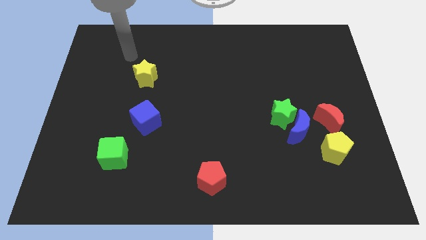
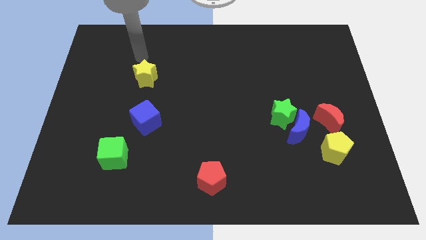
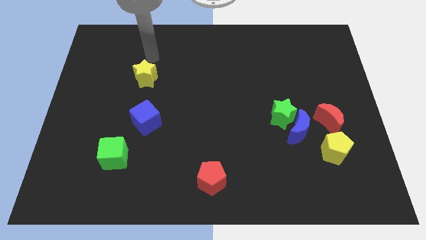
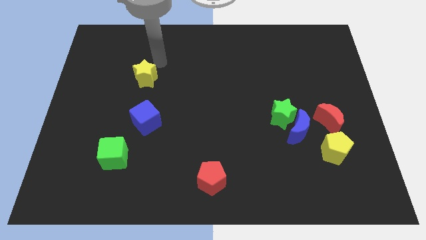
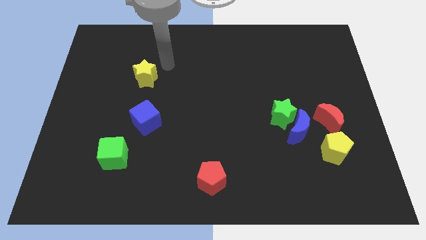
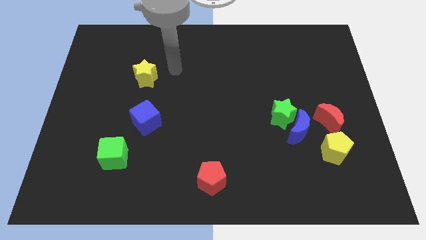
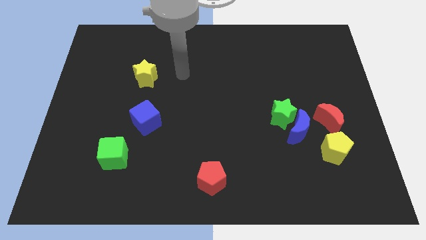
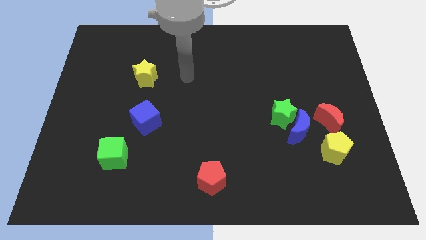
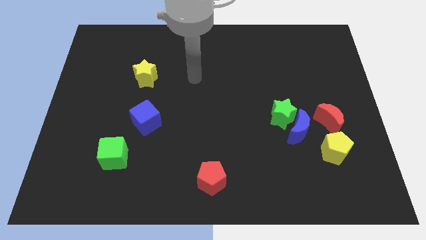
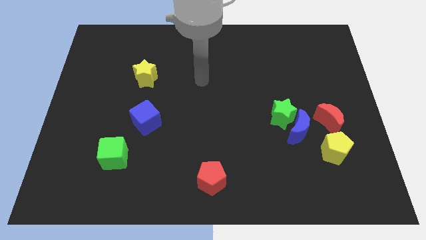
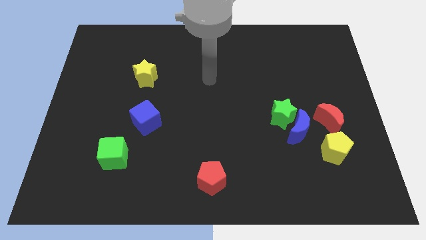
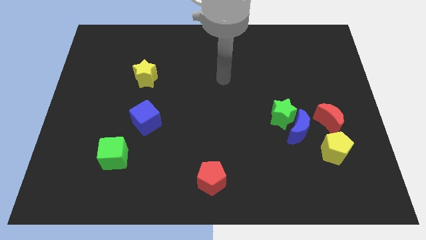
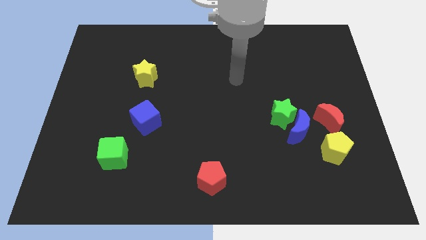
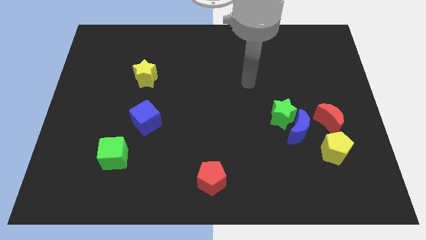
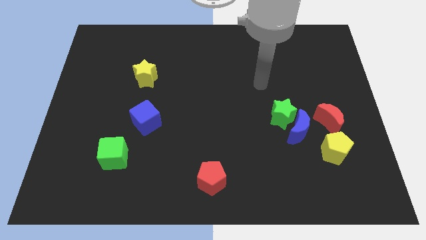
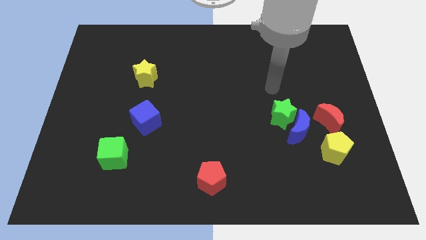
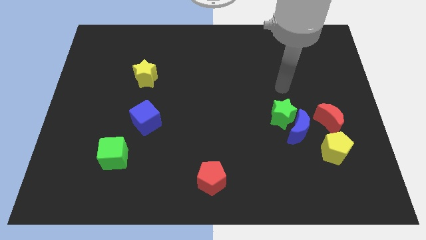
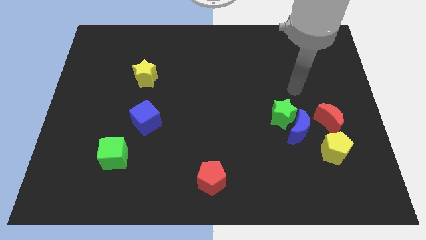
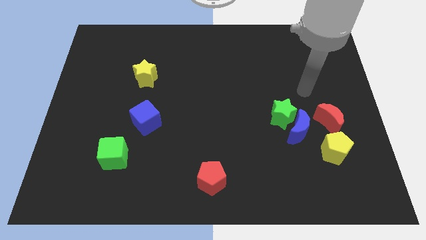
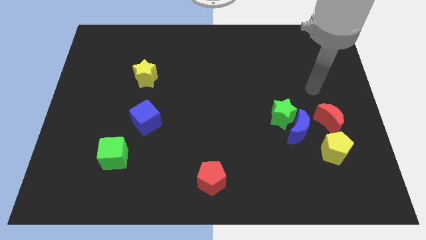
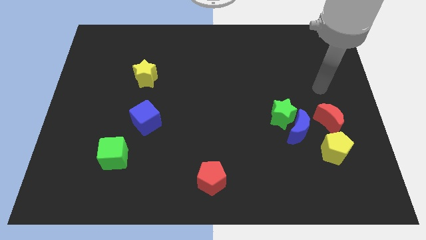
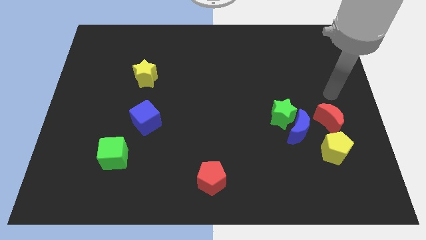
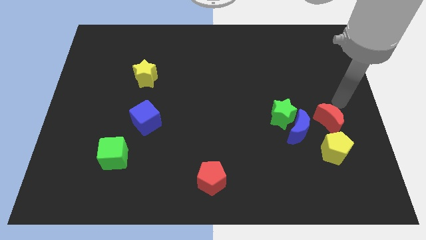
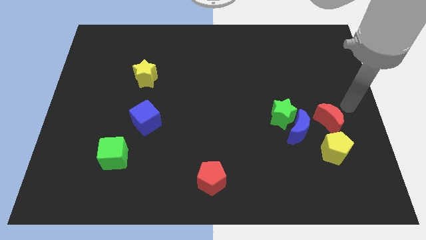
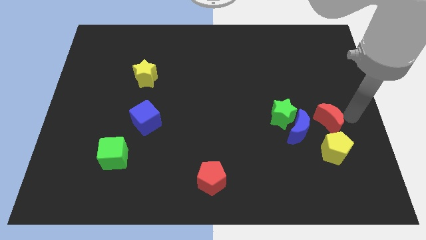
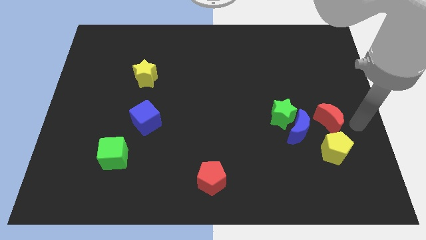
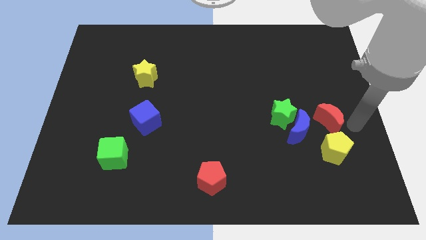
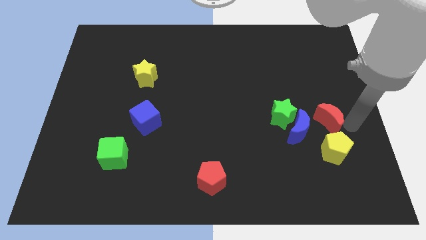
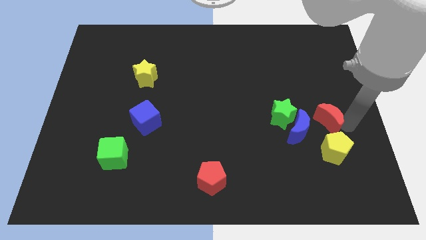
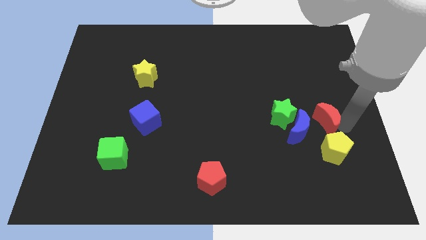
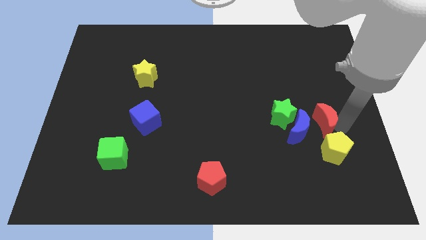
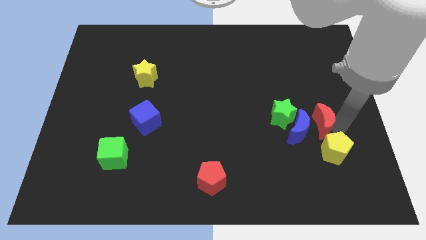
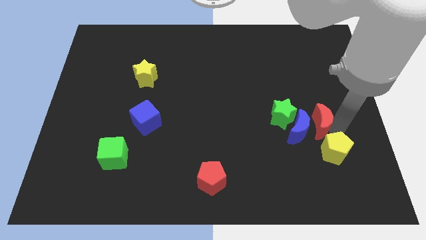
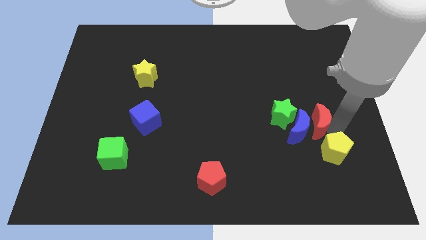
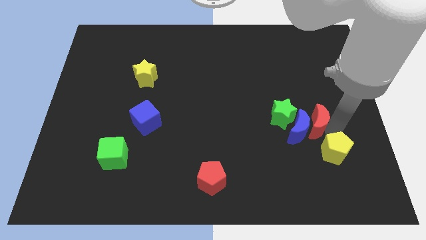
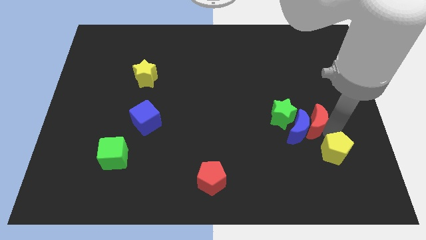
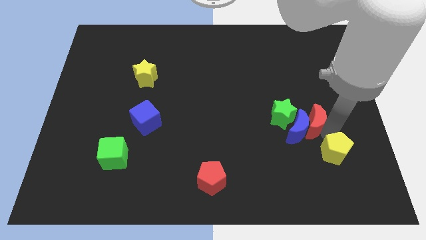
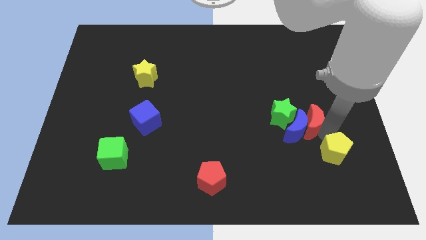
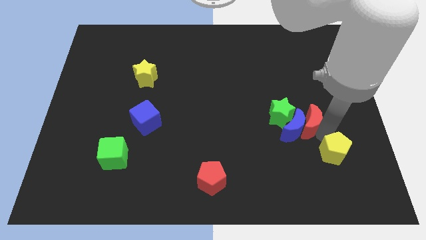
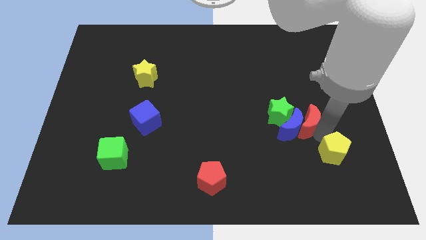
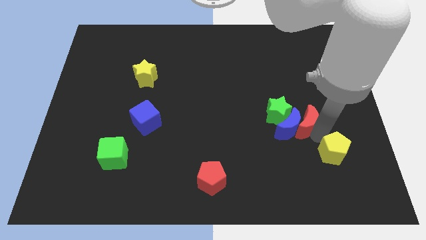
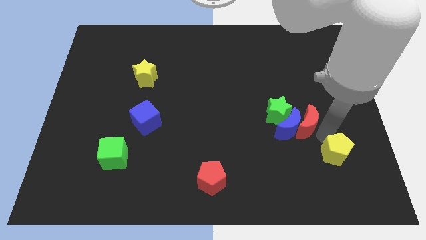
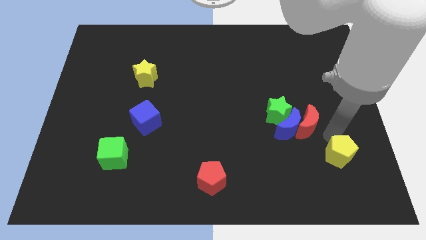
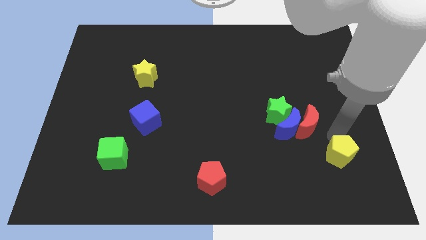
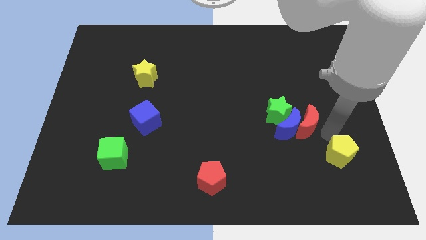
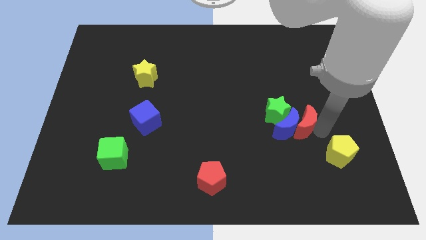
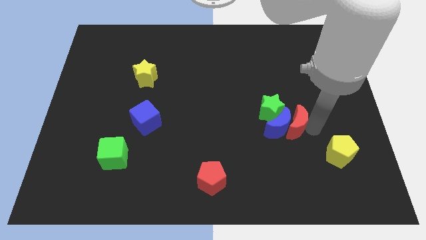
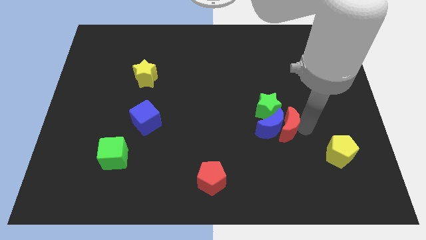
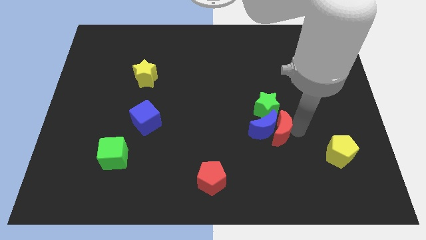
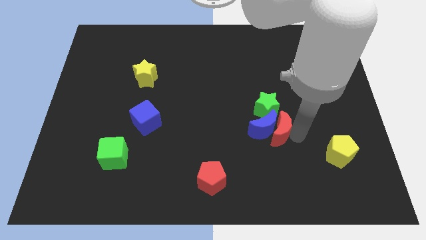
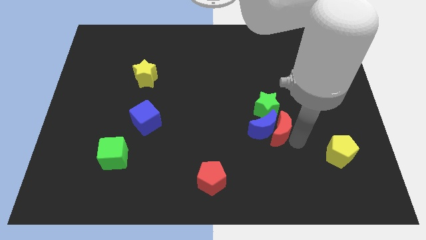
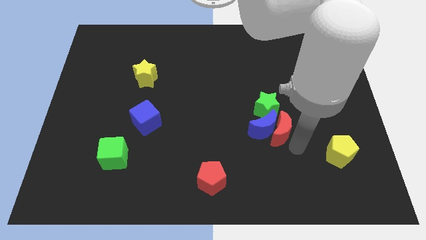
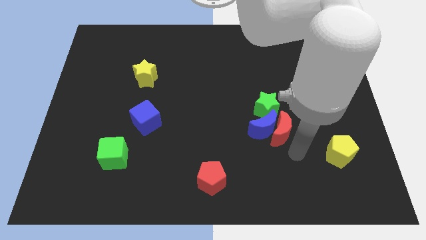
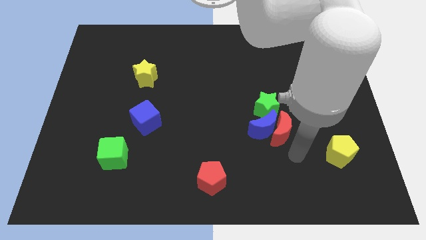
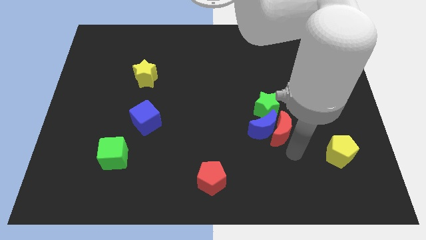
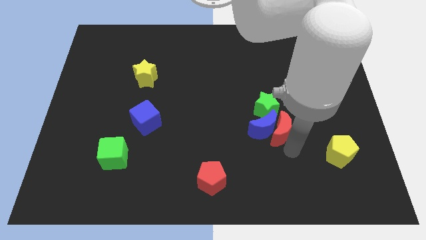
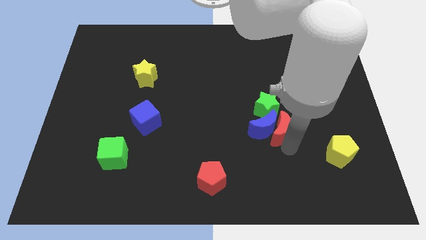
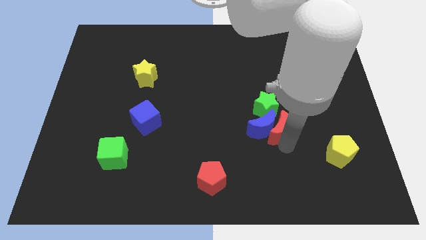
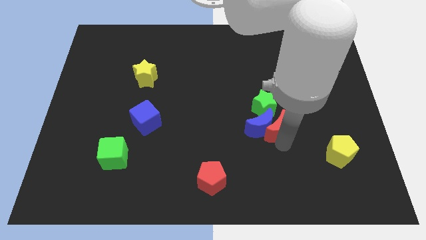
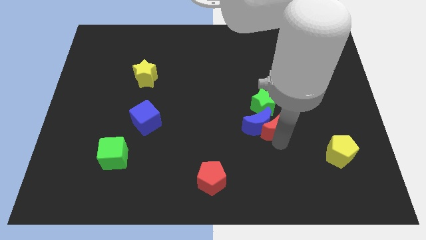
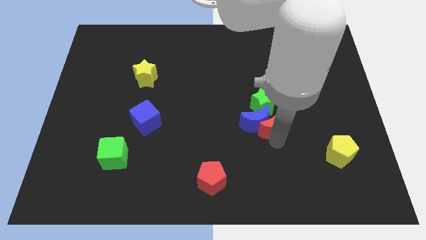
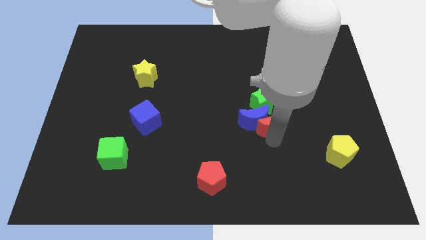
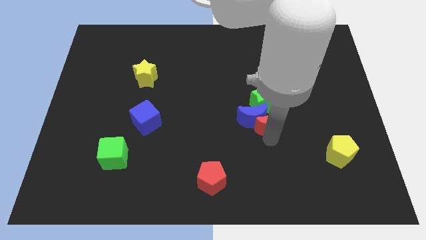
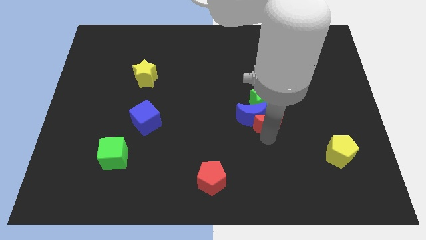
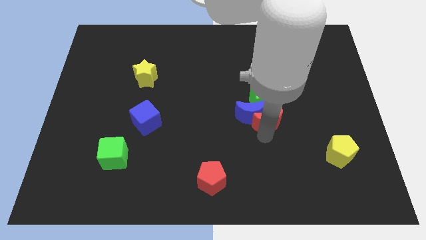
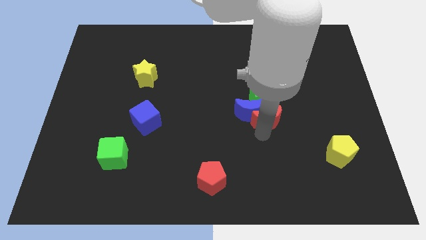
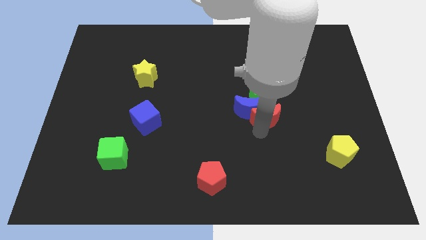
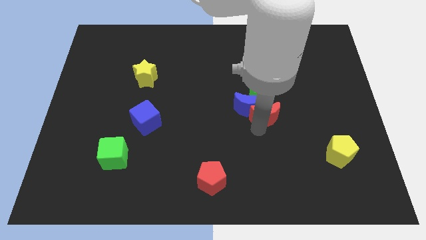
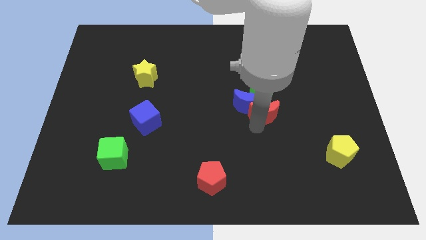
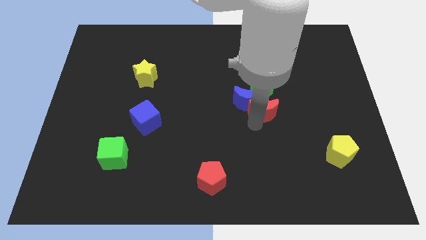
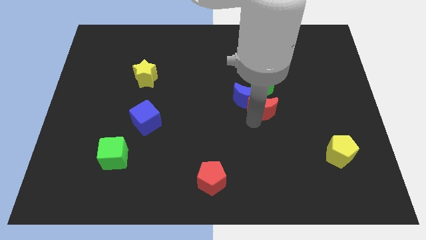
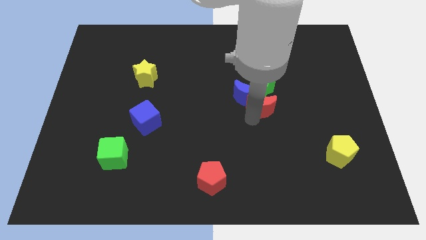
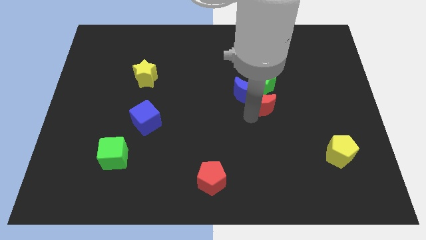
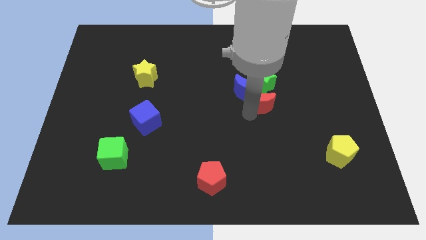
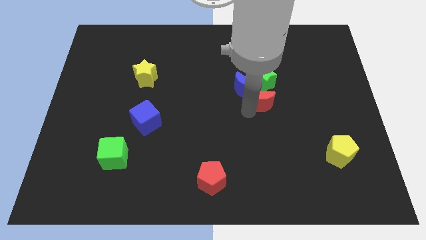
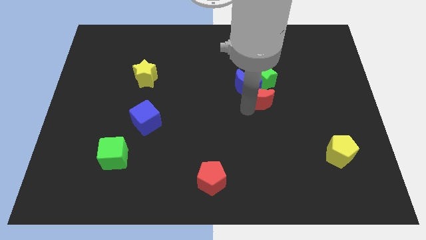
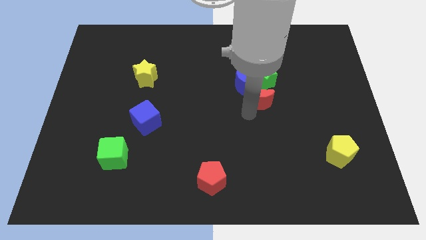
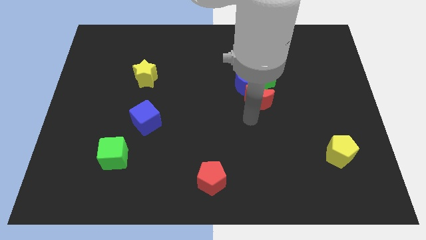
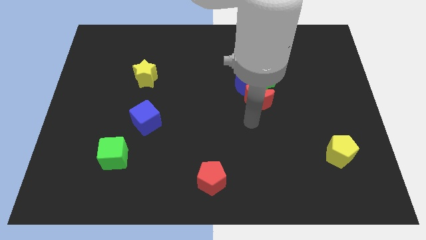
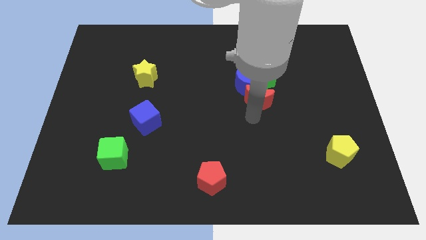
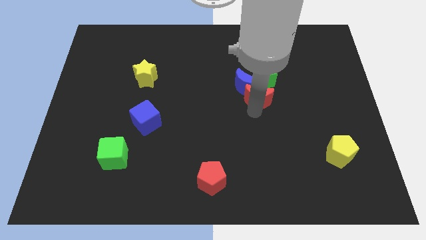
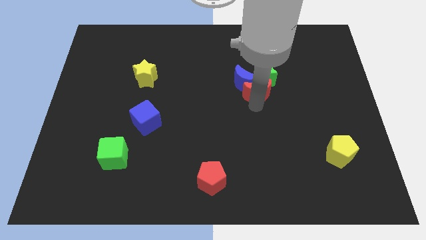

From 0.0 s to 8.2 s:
slide the red moon close to the green star
